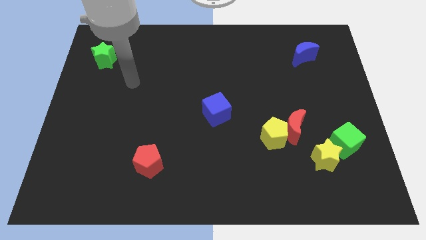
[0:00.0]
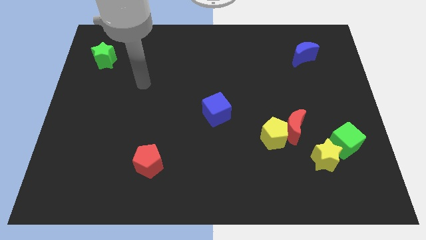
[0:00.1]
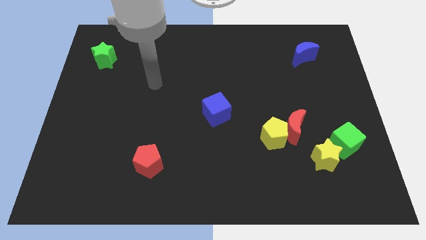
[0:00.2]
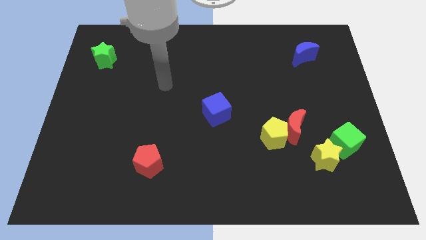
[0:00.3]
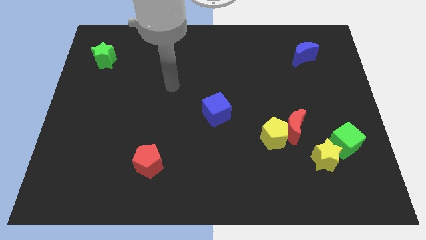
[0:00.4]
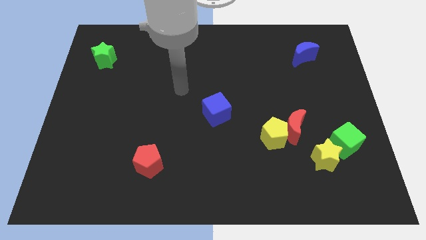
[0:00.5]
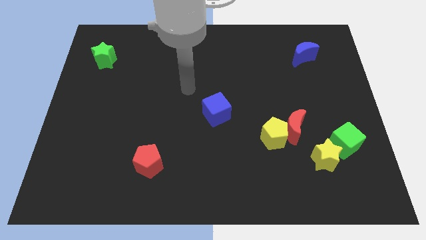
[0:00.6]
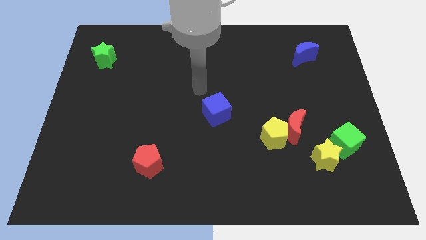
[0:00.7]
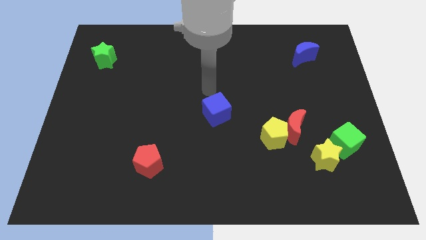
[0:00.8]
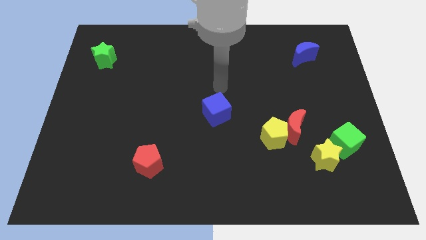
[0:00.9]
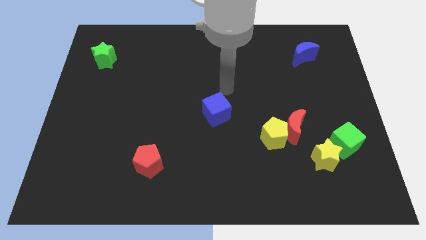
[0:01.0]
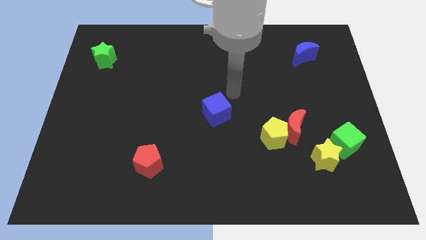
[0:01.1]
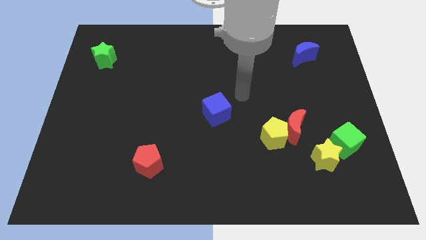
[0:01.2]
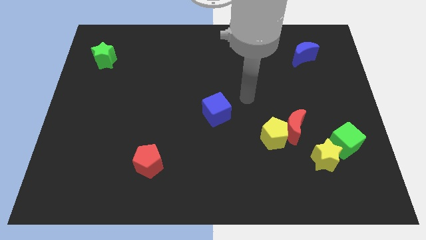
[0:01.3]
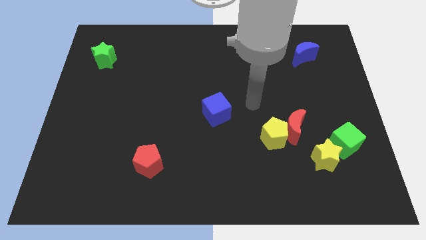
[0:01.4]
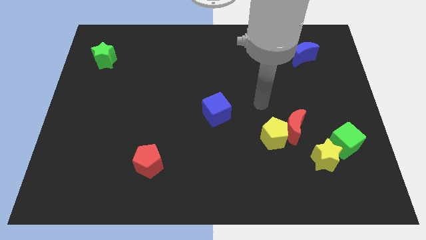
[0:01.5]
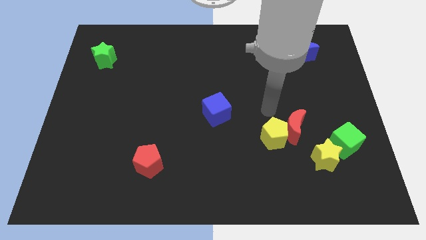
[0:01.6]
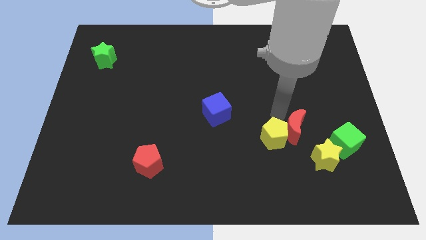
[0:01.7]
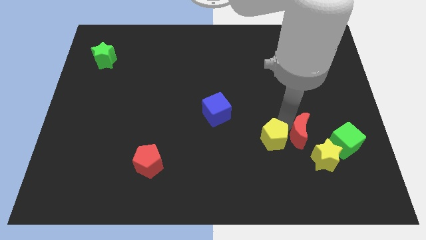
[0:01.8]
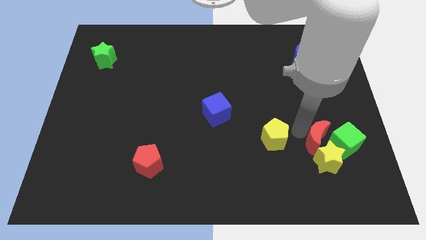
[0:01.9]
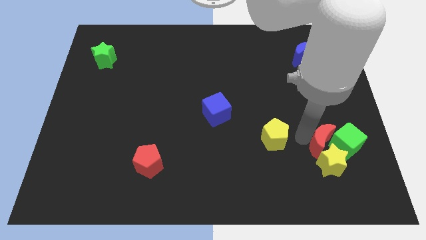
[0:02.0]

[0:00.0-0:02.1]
pull the yellow pentagon apart from the red moon

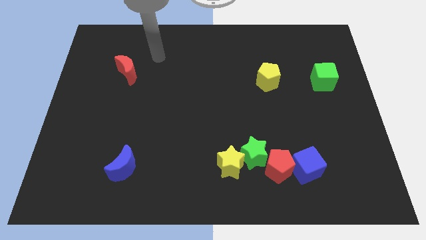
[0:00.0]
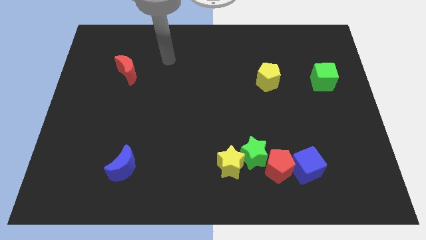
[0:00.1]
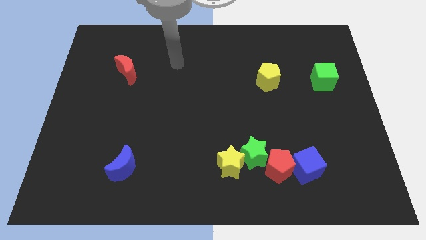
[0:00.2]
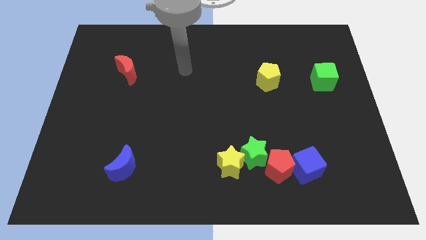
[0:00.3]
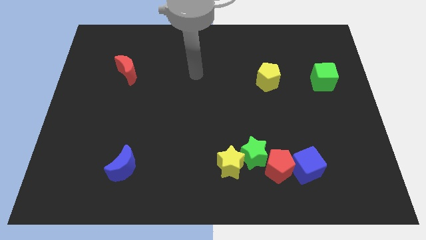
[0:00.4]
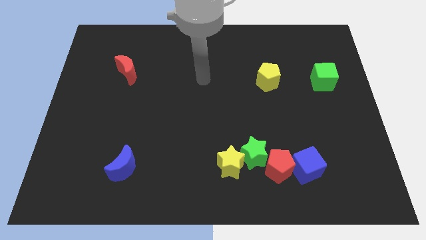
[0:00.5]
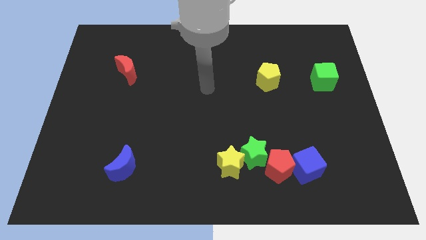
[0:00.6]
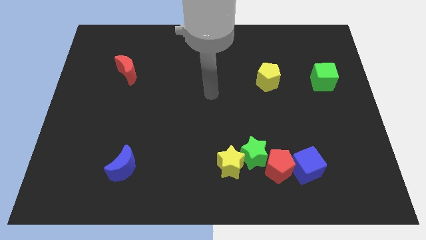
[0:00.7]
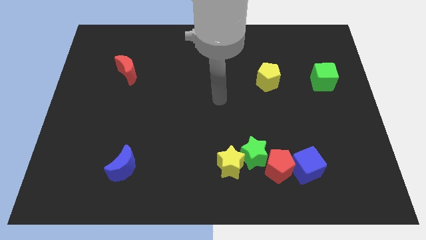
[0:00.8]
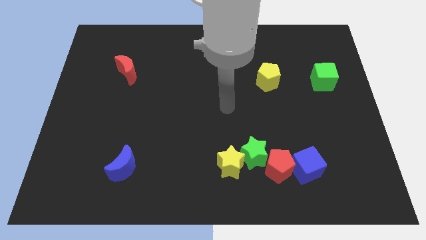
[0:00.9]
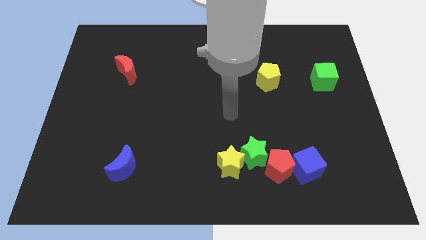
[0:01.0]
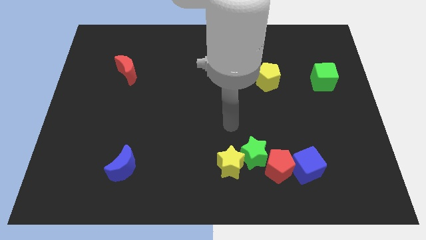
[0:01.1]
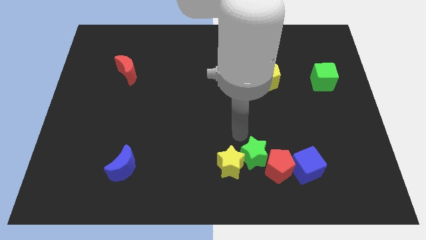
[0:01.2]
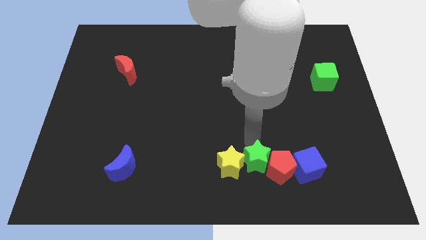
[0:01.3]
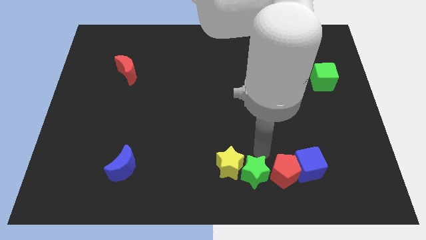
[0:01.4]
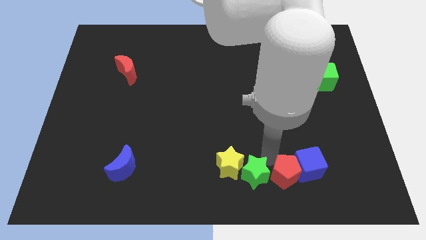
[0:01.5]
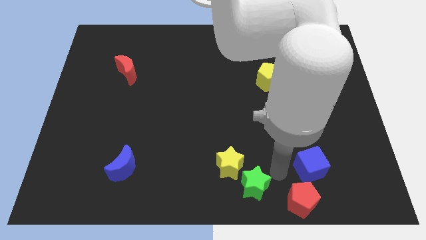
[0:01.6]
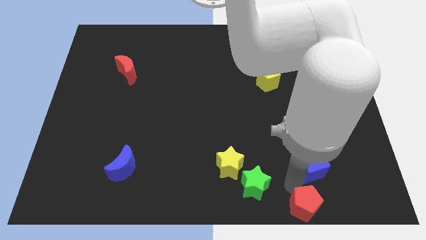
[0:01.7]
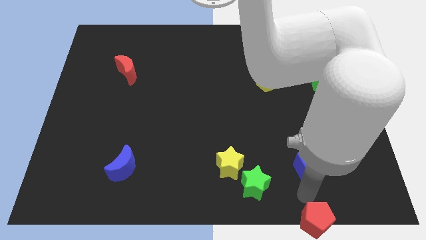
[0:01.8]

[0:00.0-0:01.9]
move the blue cube away from the red pentagon

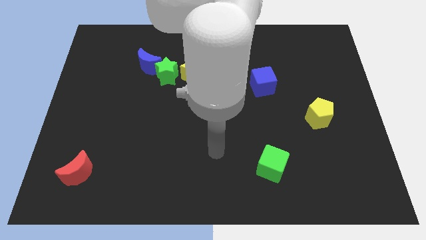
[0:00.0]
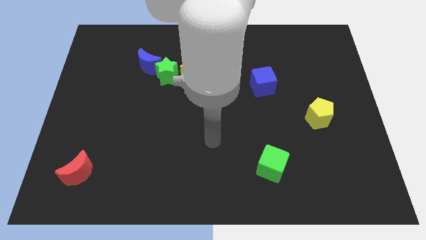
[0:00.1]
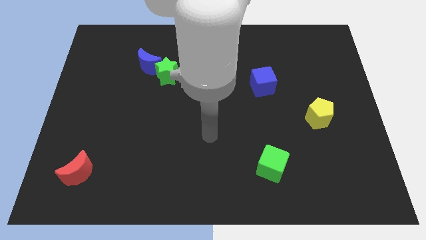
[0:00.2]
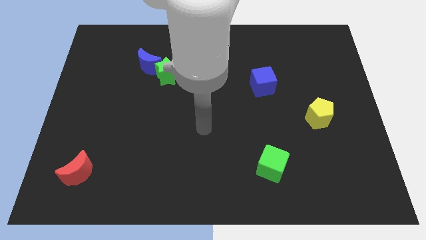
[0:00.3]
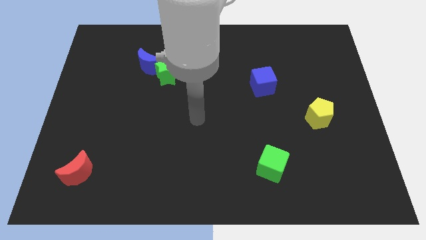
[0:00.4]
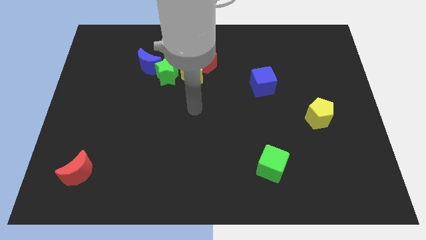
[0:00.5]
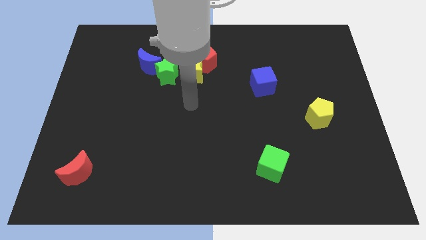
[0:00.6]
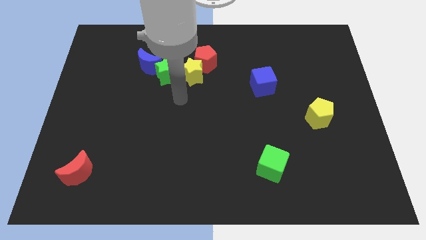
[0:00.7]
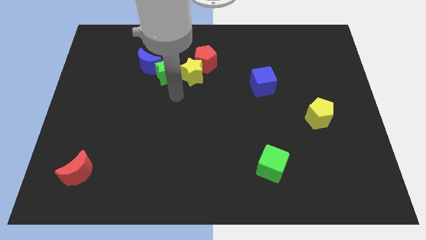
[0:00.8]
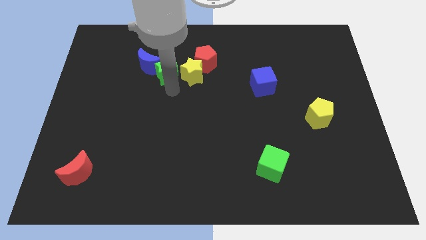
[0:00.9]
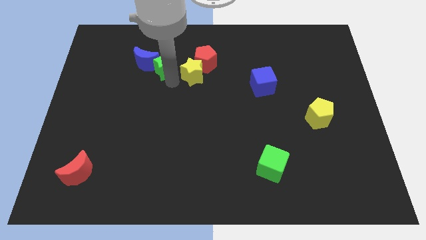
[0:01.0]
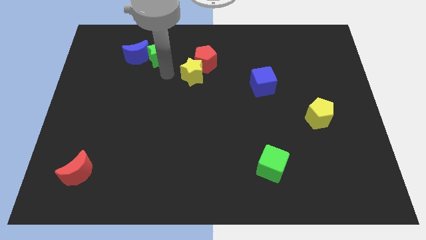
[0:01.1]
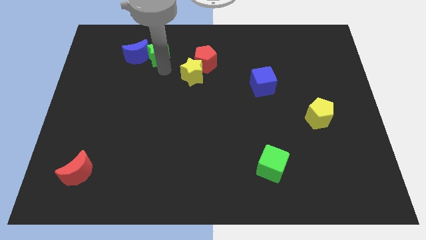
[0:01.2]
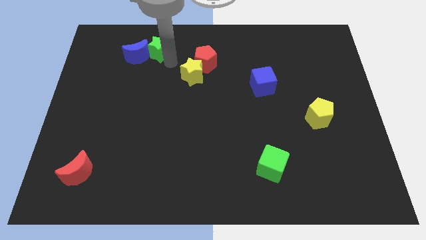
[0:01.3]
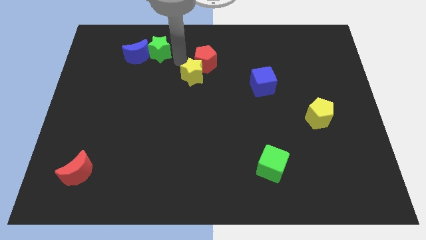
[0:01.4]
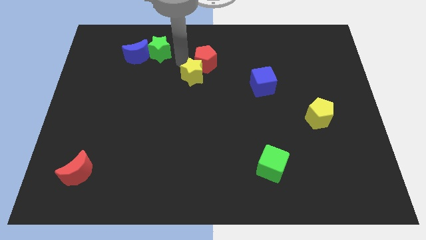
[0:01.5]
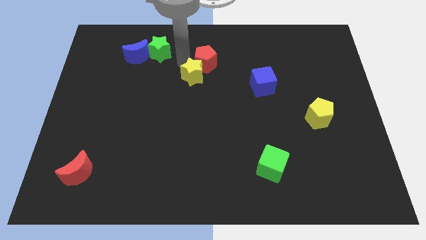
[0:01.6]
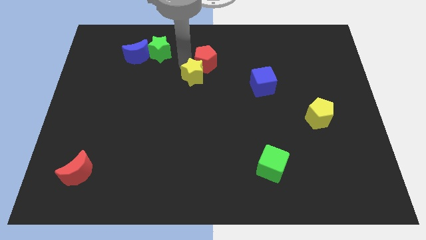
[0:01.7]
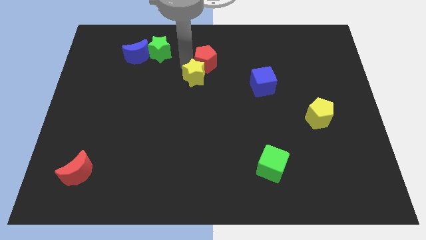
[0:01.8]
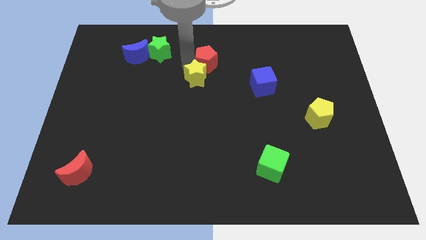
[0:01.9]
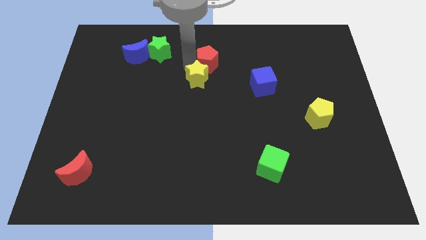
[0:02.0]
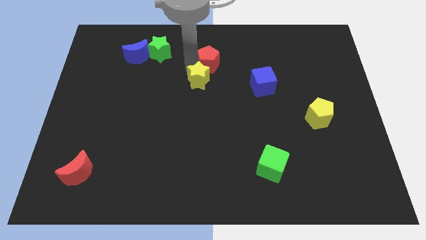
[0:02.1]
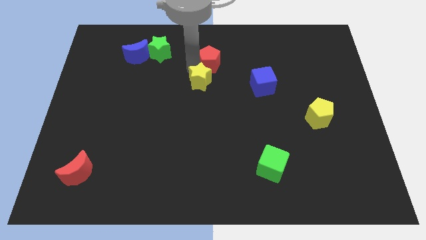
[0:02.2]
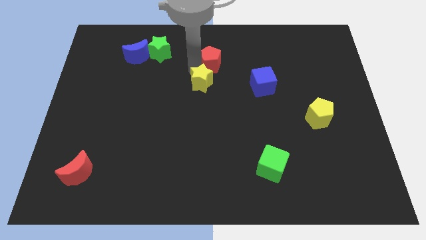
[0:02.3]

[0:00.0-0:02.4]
pull the yellow star apart from the red pentagon and green star

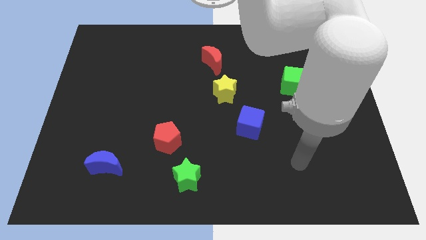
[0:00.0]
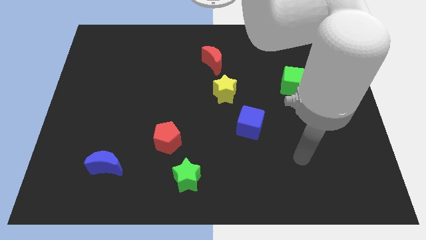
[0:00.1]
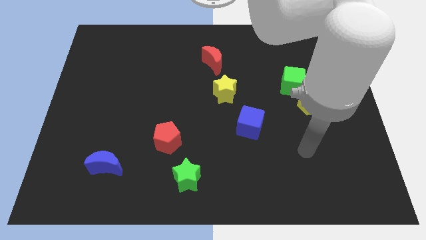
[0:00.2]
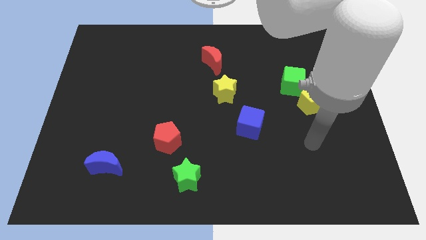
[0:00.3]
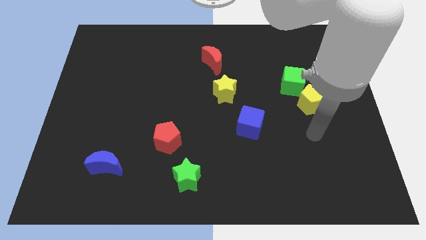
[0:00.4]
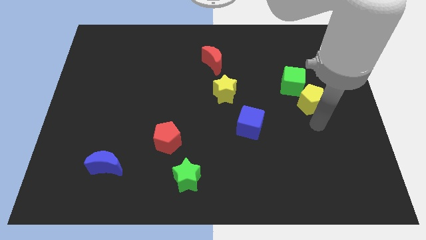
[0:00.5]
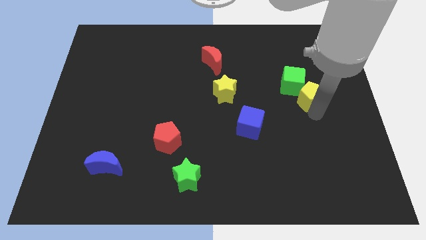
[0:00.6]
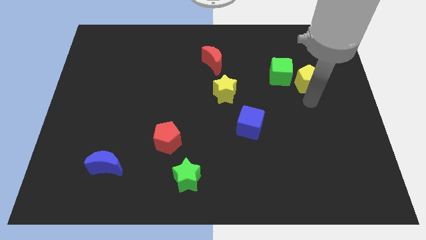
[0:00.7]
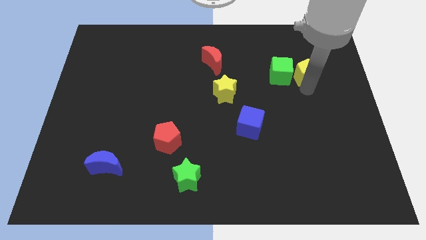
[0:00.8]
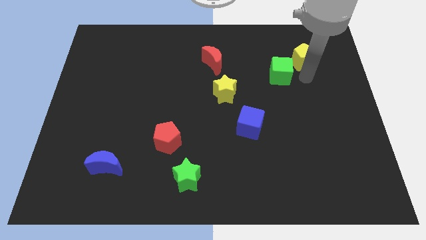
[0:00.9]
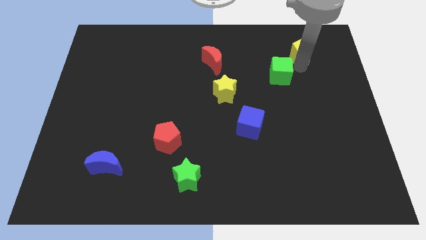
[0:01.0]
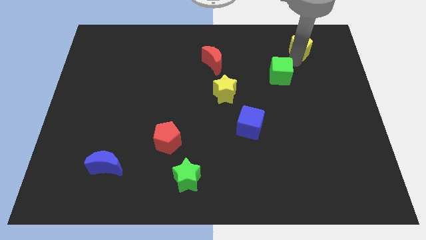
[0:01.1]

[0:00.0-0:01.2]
move the green cube away from the yellow pentagon

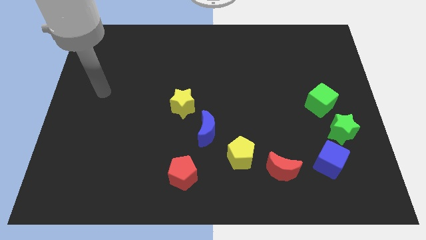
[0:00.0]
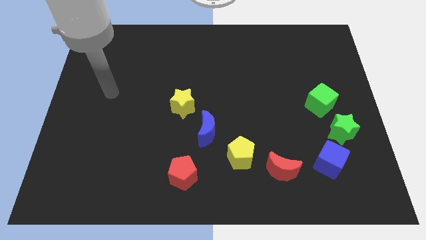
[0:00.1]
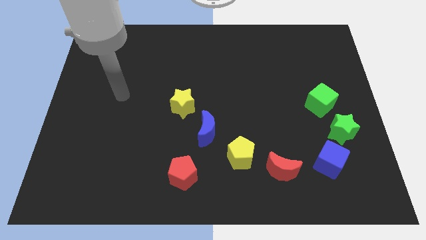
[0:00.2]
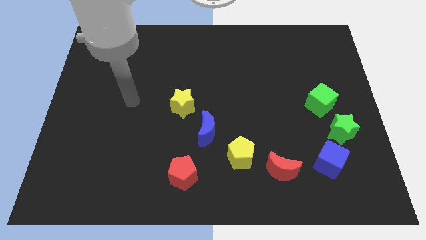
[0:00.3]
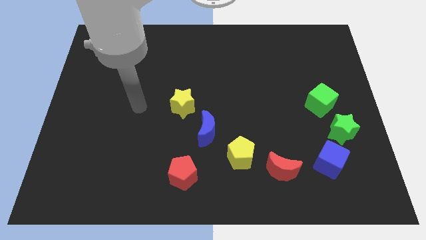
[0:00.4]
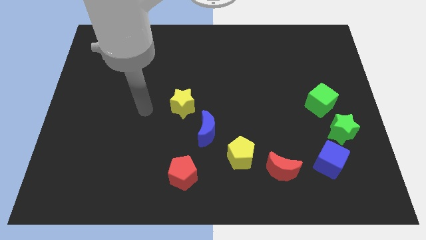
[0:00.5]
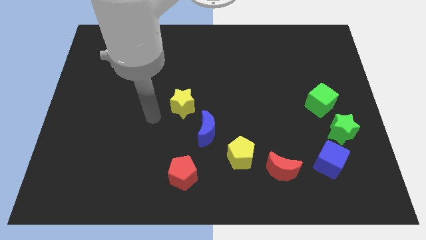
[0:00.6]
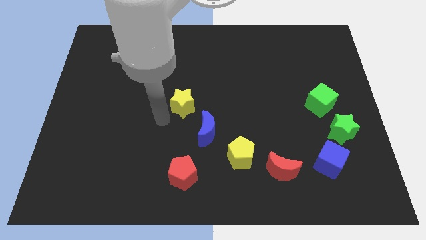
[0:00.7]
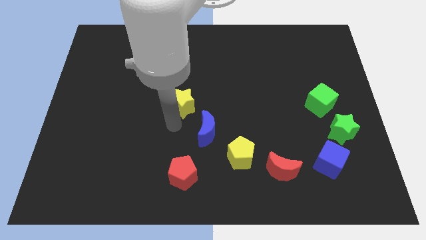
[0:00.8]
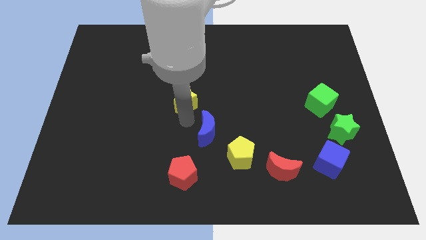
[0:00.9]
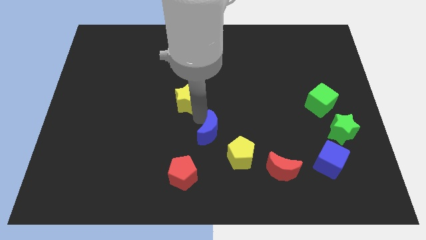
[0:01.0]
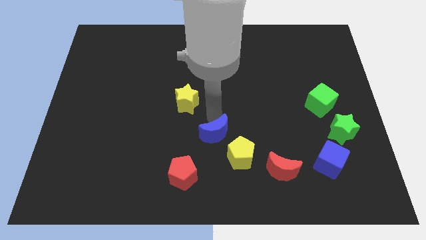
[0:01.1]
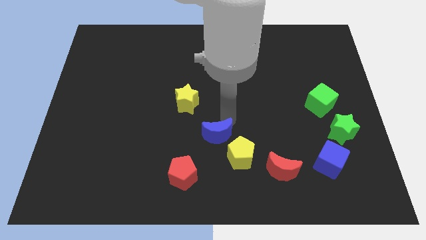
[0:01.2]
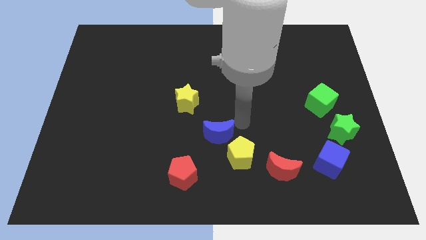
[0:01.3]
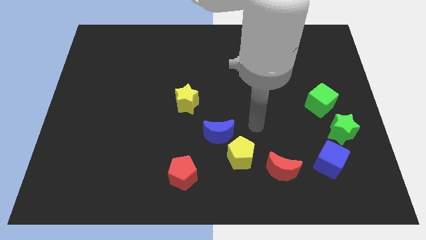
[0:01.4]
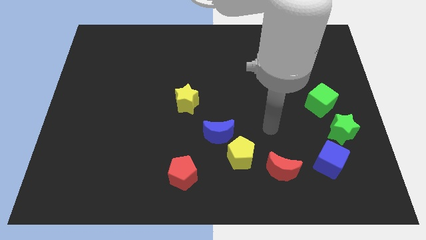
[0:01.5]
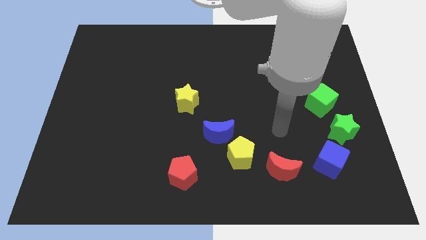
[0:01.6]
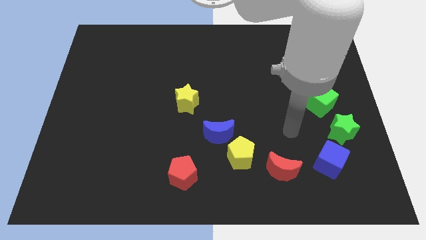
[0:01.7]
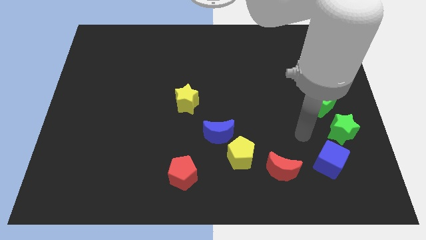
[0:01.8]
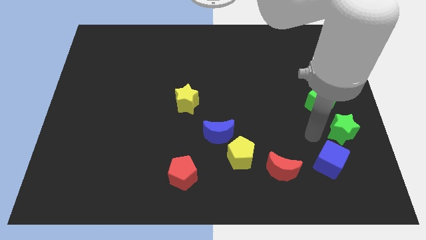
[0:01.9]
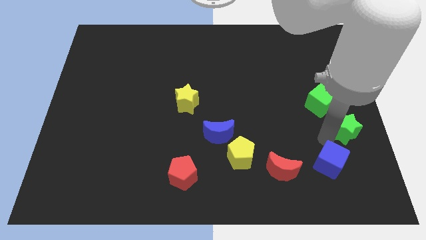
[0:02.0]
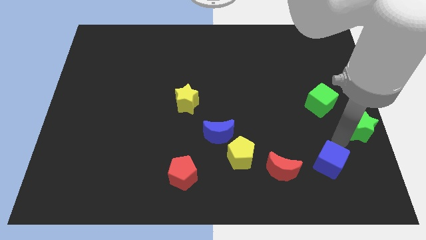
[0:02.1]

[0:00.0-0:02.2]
move the blue cube away from the green star
